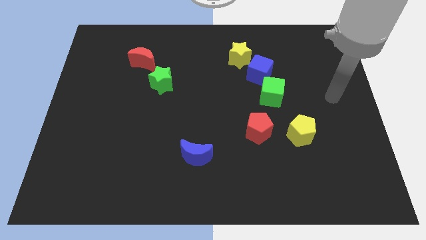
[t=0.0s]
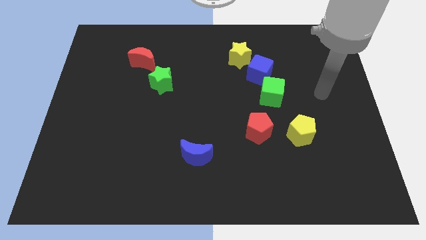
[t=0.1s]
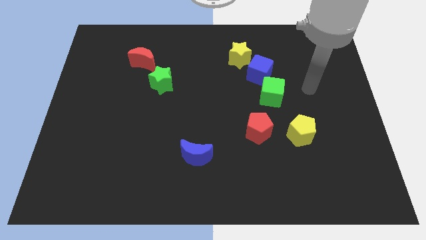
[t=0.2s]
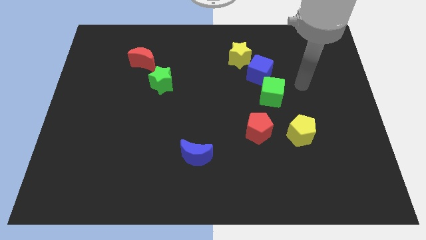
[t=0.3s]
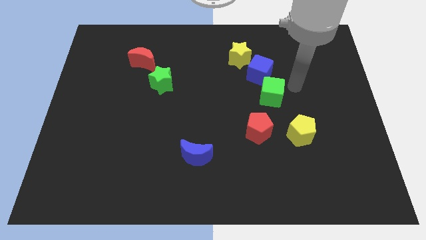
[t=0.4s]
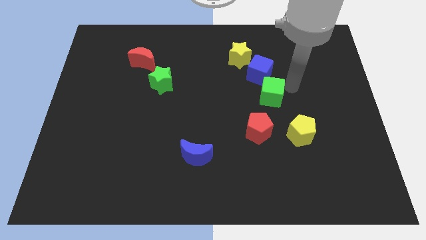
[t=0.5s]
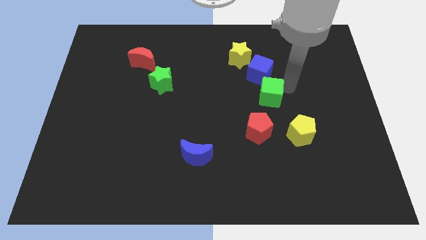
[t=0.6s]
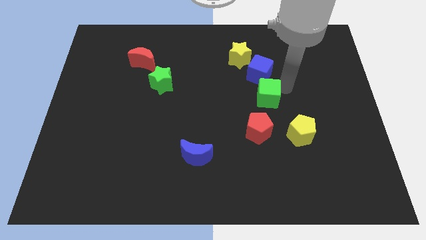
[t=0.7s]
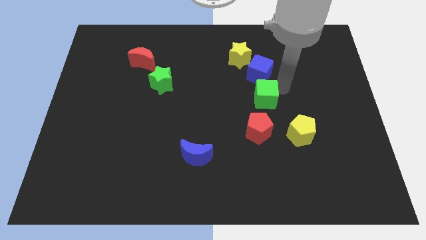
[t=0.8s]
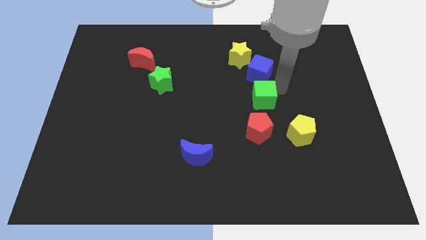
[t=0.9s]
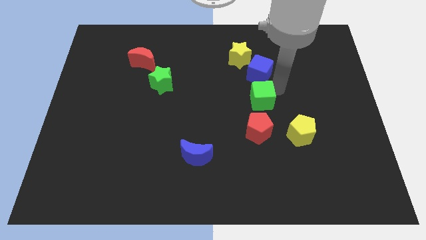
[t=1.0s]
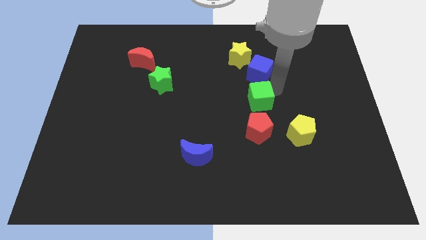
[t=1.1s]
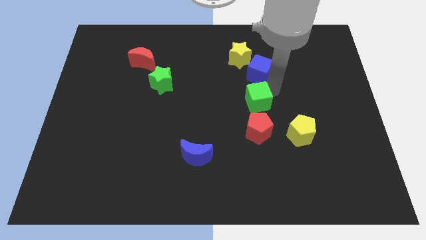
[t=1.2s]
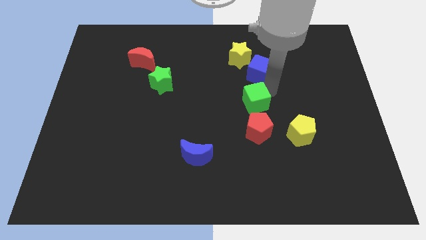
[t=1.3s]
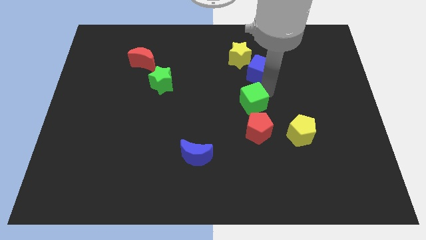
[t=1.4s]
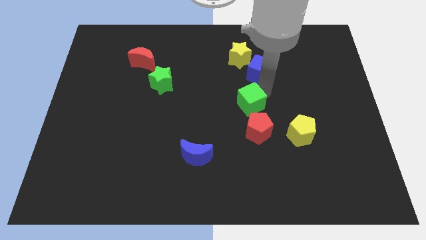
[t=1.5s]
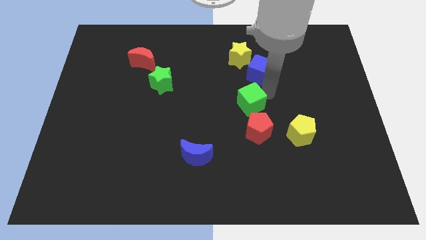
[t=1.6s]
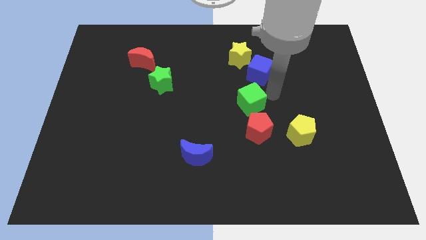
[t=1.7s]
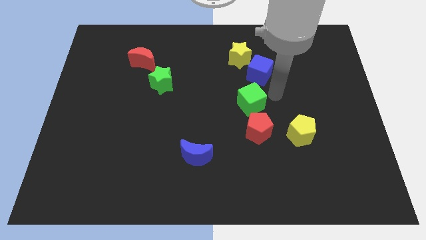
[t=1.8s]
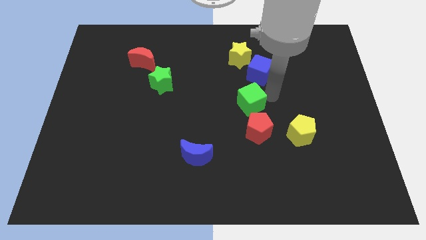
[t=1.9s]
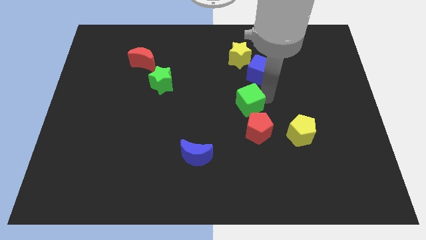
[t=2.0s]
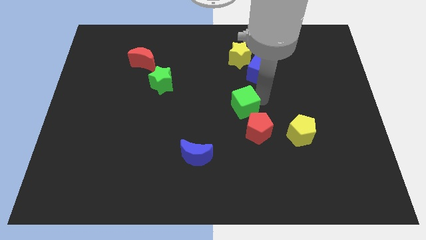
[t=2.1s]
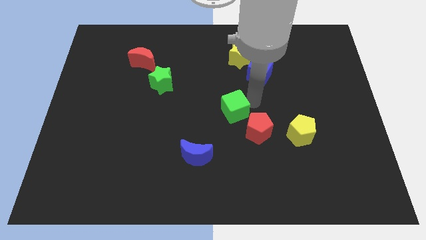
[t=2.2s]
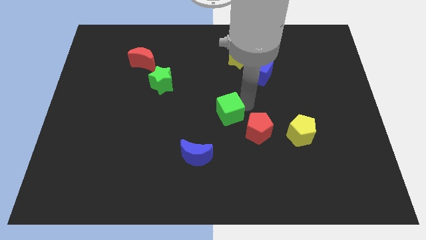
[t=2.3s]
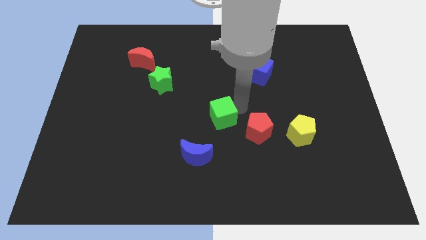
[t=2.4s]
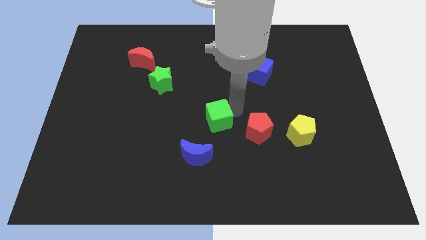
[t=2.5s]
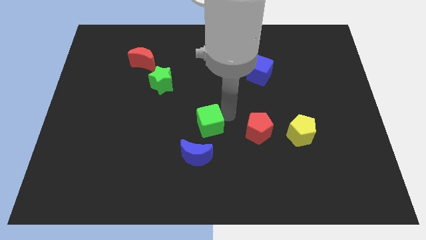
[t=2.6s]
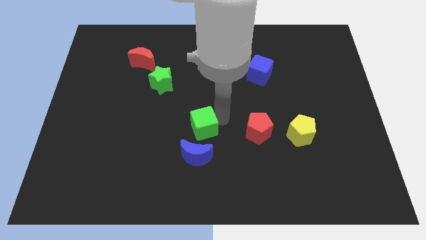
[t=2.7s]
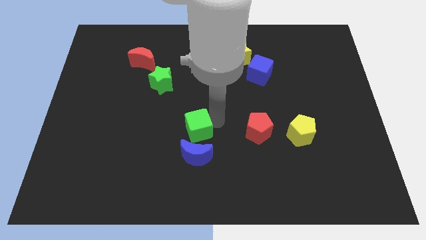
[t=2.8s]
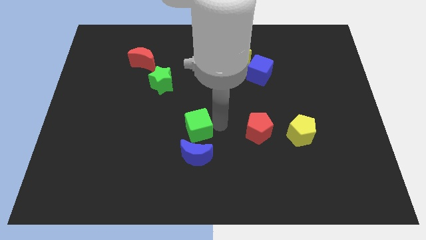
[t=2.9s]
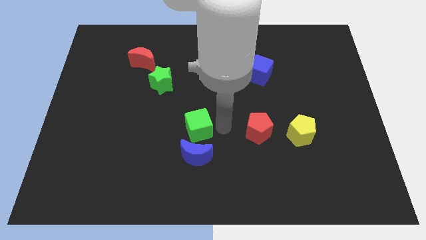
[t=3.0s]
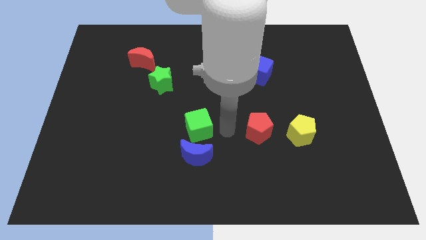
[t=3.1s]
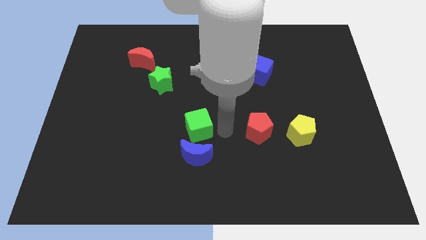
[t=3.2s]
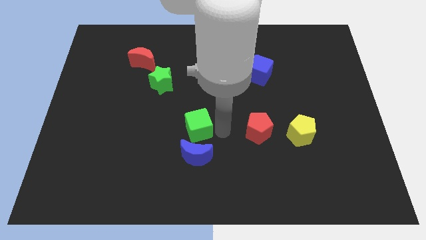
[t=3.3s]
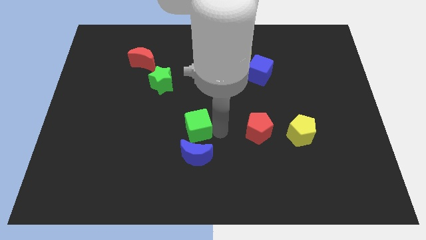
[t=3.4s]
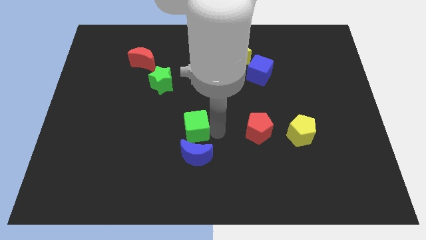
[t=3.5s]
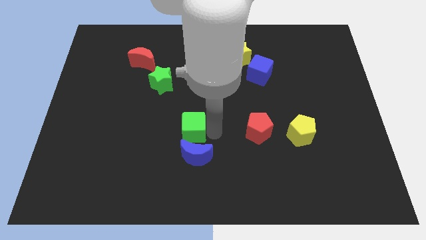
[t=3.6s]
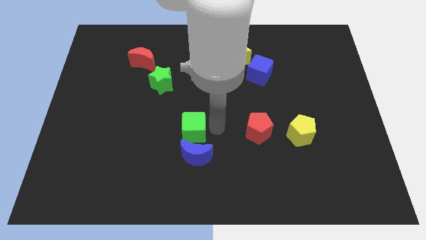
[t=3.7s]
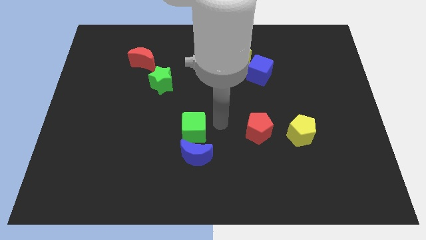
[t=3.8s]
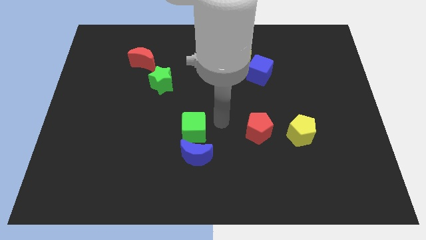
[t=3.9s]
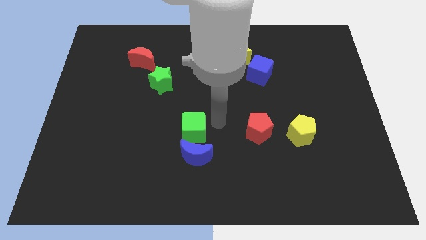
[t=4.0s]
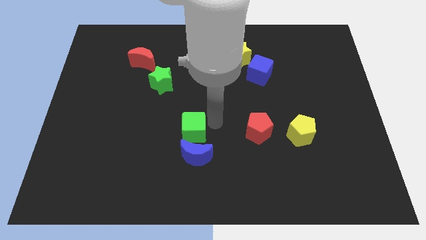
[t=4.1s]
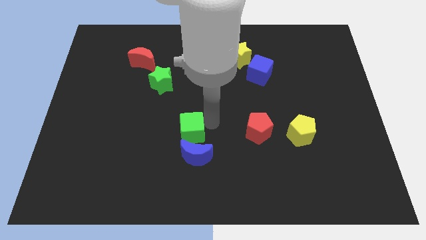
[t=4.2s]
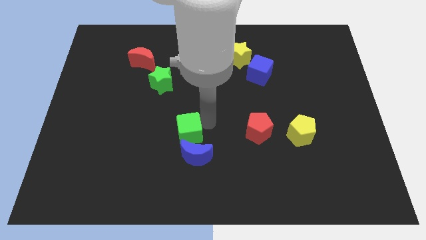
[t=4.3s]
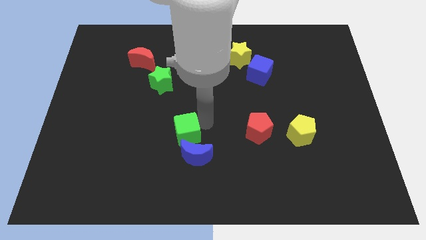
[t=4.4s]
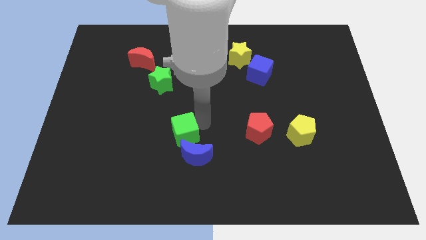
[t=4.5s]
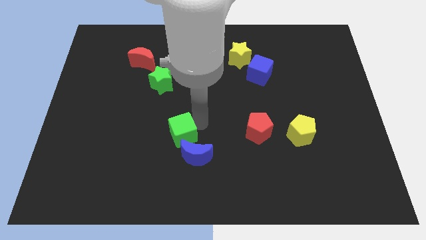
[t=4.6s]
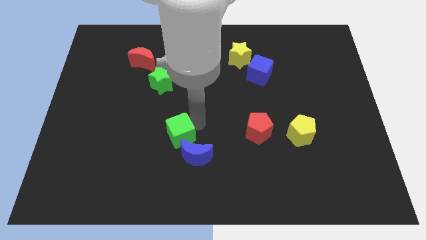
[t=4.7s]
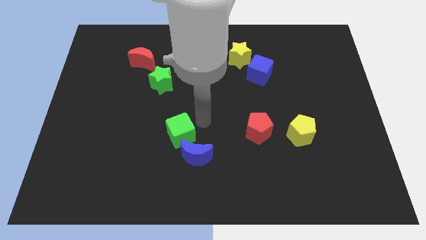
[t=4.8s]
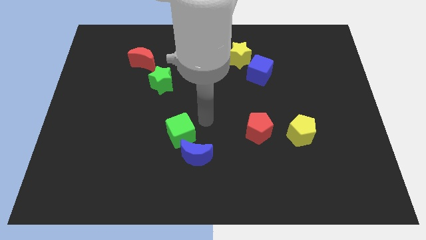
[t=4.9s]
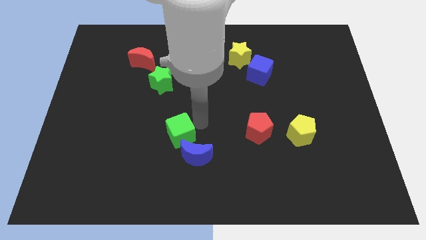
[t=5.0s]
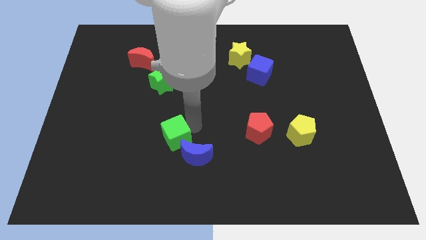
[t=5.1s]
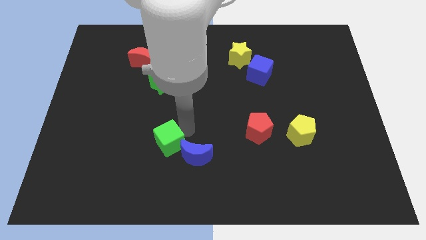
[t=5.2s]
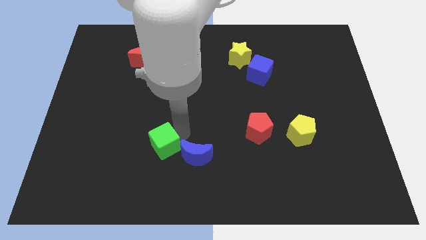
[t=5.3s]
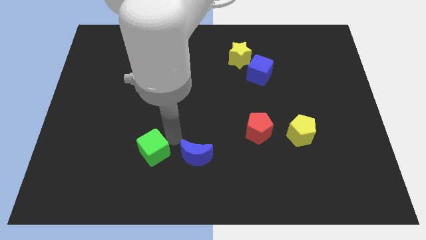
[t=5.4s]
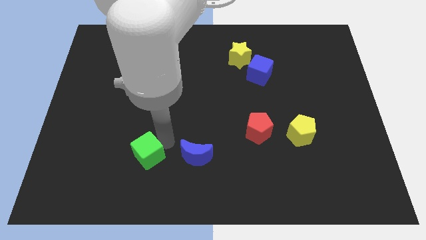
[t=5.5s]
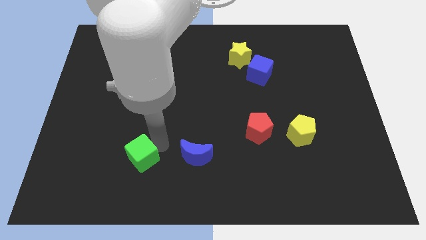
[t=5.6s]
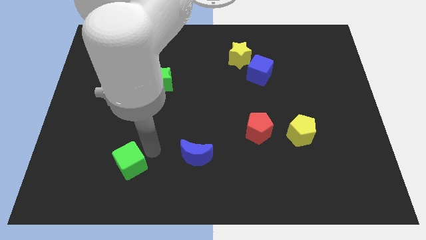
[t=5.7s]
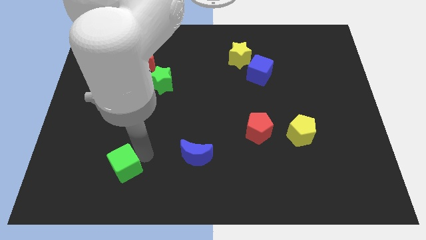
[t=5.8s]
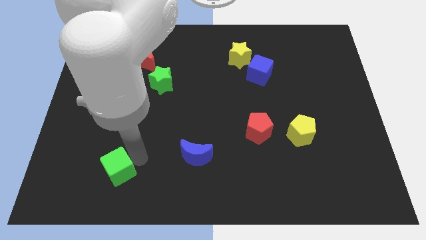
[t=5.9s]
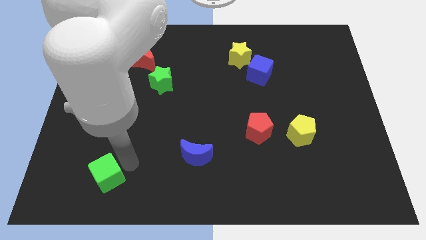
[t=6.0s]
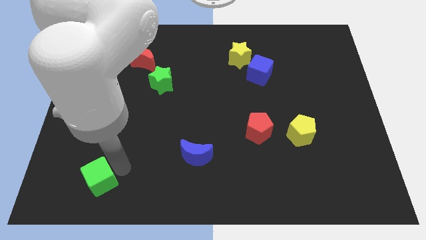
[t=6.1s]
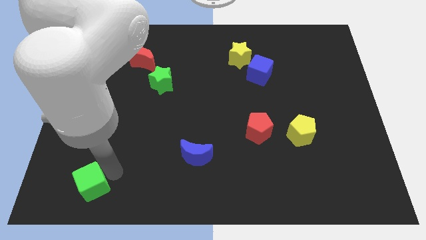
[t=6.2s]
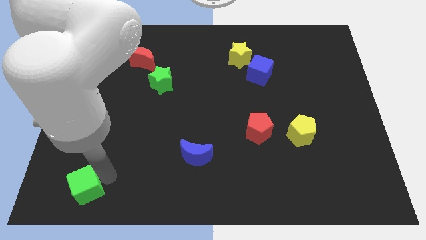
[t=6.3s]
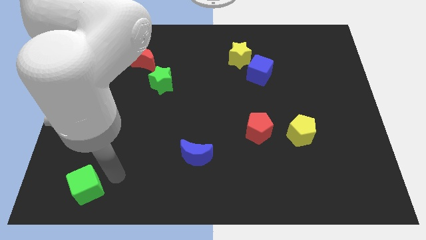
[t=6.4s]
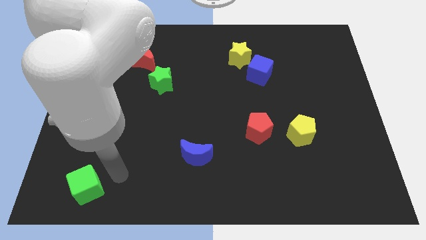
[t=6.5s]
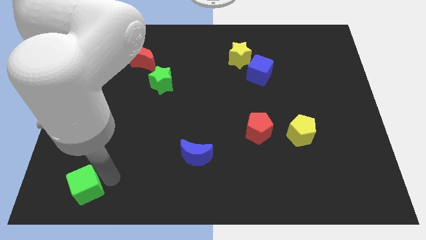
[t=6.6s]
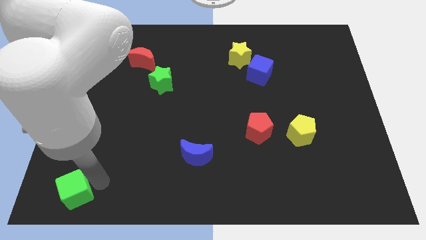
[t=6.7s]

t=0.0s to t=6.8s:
move the green cube to the bottom left of the board
